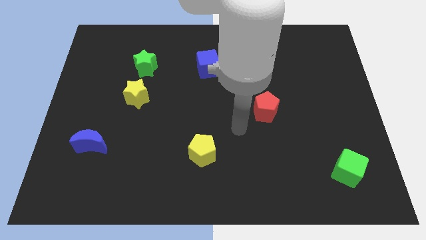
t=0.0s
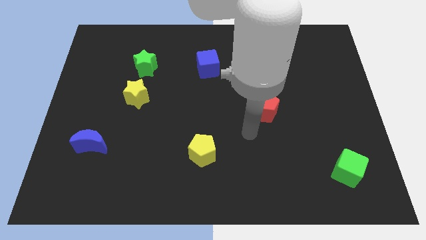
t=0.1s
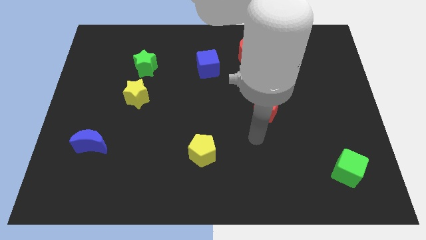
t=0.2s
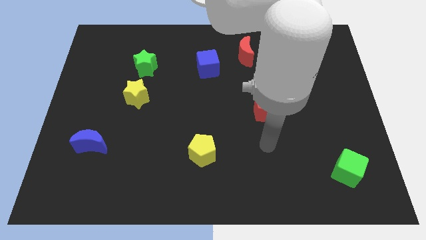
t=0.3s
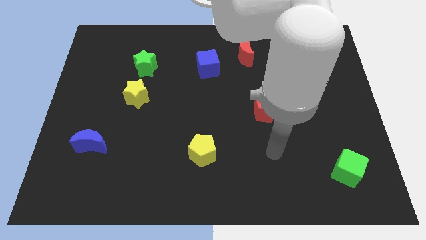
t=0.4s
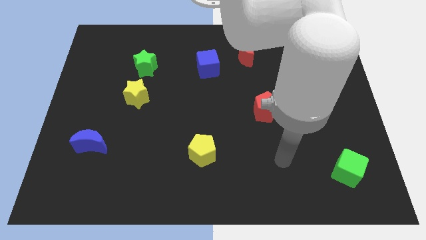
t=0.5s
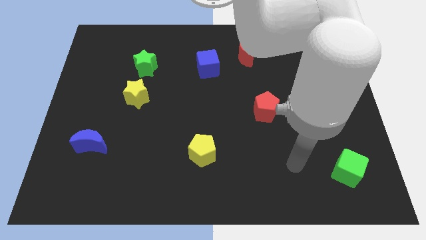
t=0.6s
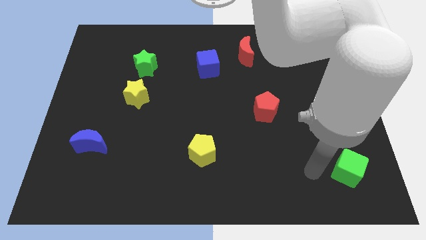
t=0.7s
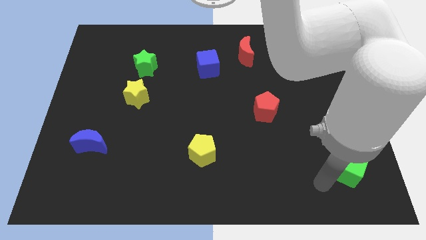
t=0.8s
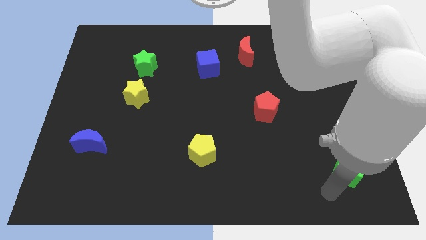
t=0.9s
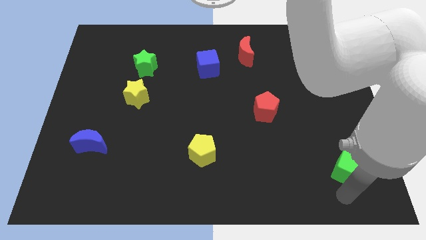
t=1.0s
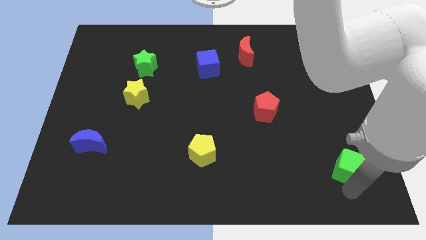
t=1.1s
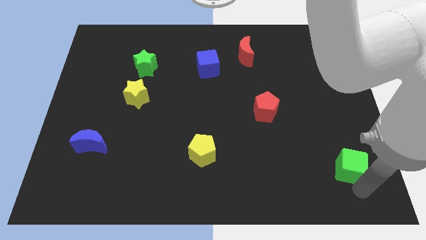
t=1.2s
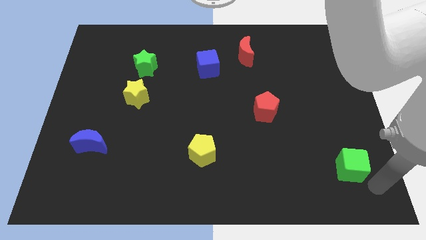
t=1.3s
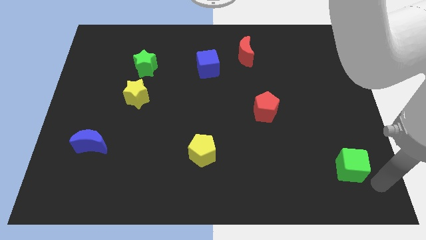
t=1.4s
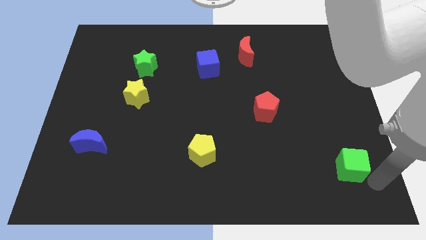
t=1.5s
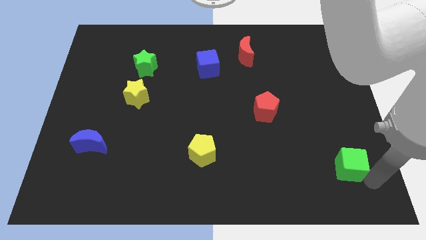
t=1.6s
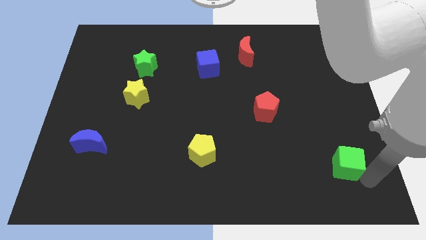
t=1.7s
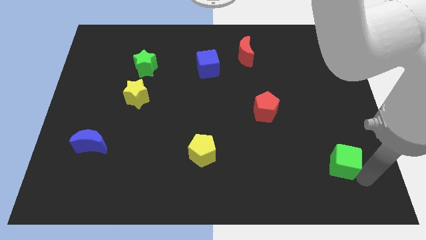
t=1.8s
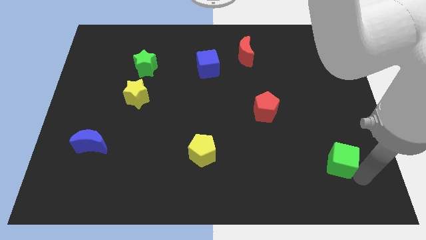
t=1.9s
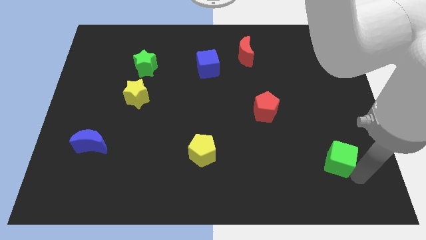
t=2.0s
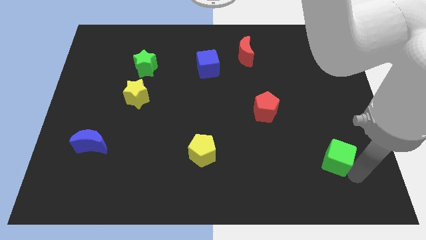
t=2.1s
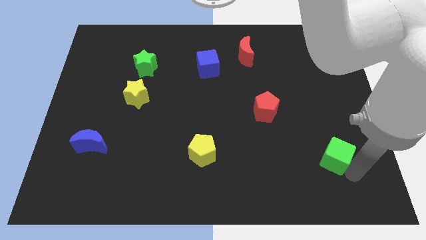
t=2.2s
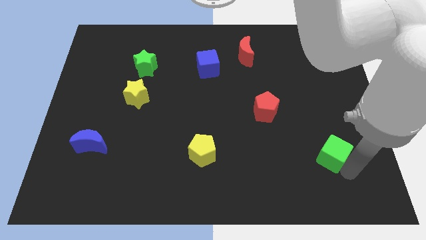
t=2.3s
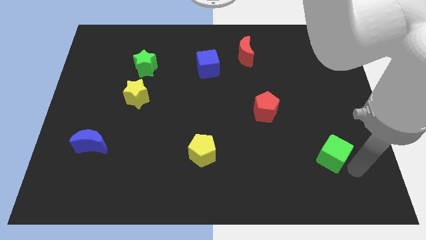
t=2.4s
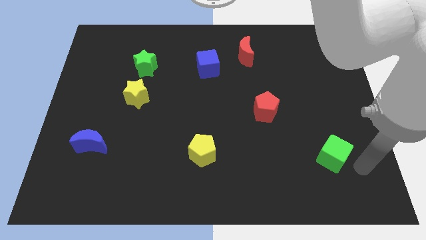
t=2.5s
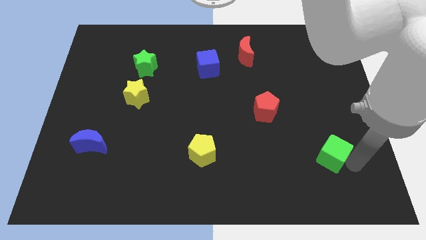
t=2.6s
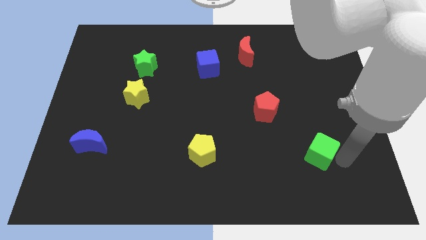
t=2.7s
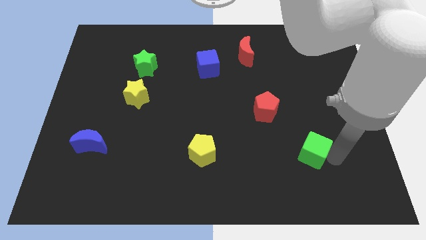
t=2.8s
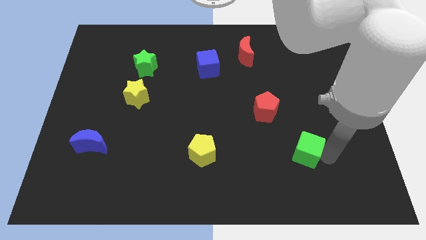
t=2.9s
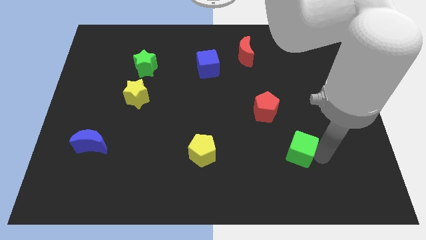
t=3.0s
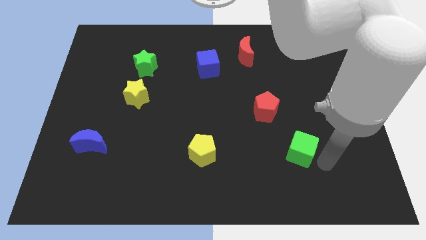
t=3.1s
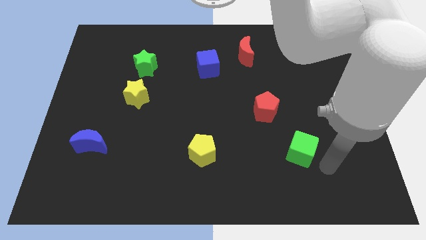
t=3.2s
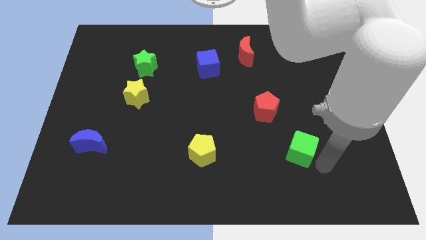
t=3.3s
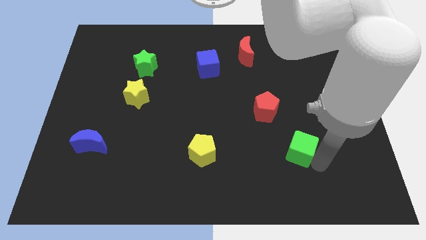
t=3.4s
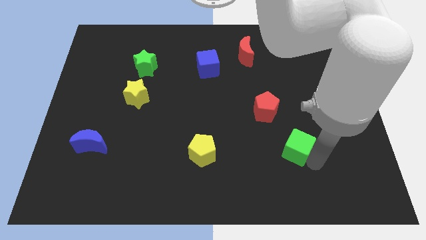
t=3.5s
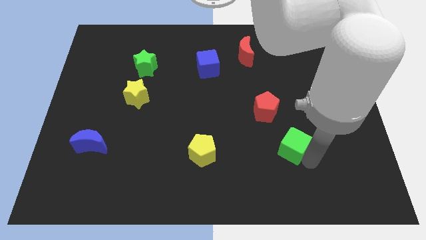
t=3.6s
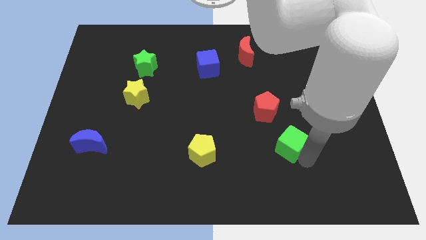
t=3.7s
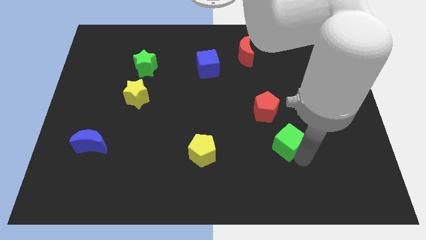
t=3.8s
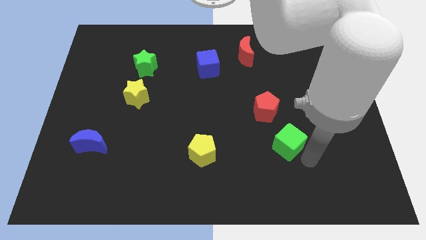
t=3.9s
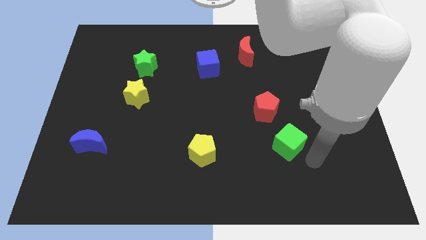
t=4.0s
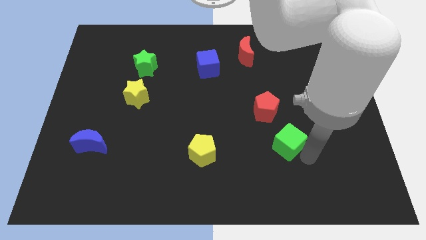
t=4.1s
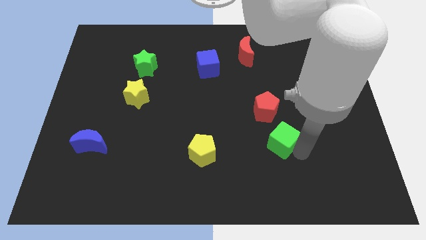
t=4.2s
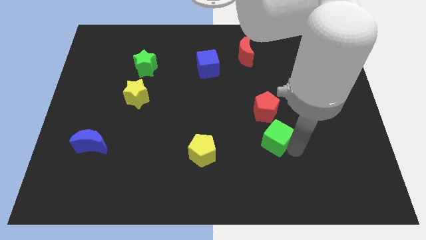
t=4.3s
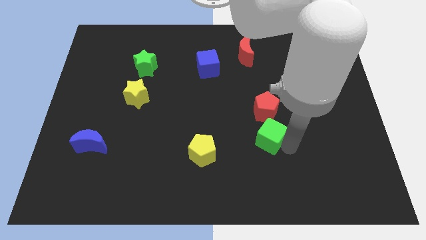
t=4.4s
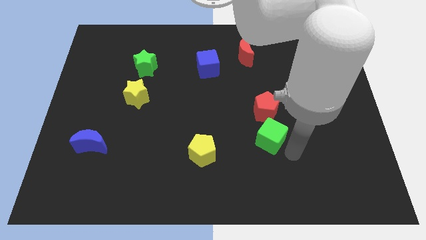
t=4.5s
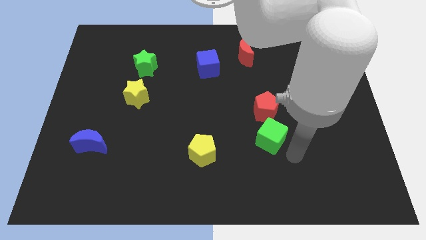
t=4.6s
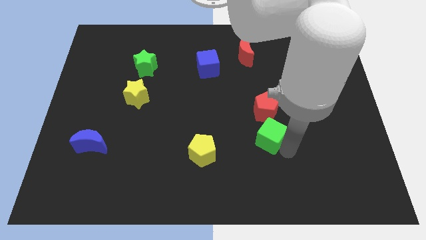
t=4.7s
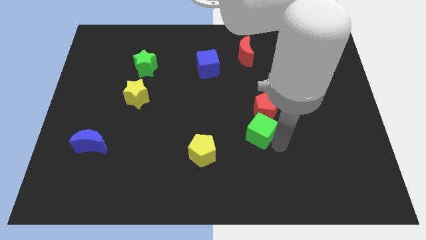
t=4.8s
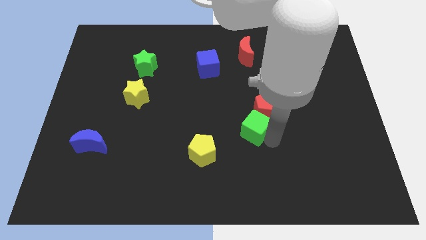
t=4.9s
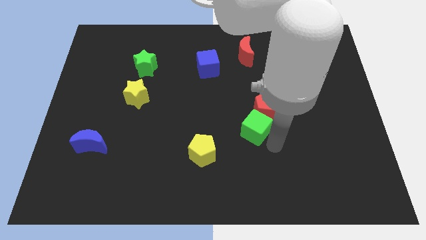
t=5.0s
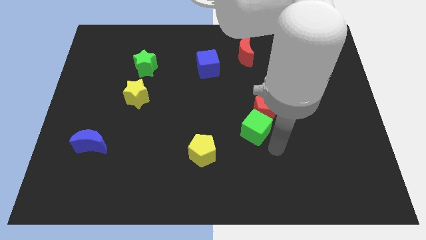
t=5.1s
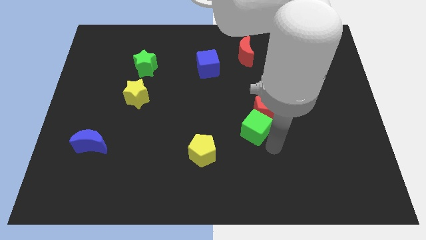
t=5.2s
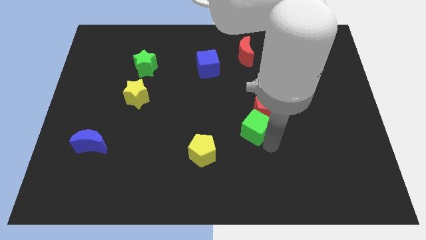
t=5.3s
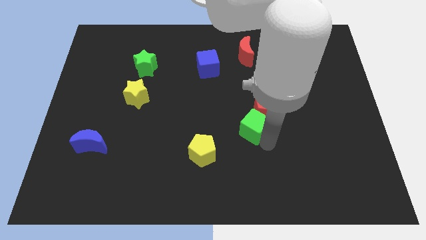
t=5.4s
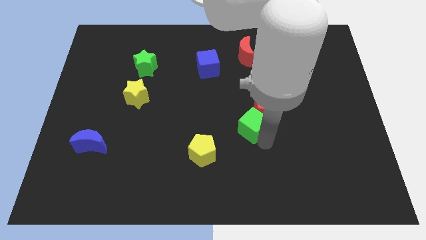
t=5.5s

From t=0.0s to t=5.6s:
slide the green cube upwards and left

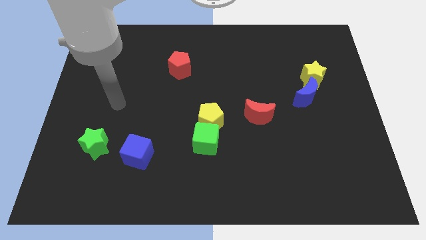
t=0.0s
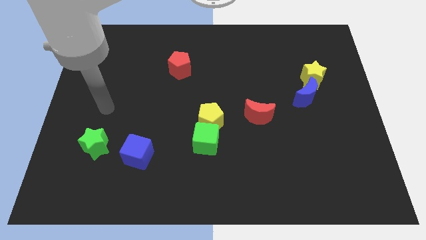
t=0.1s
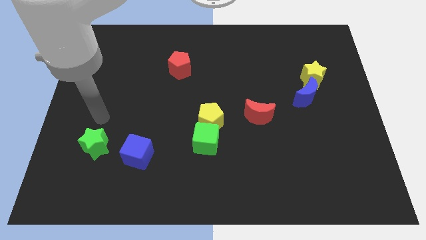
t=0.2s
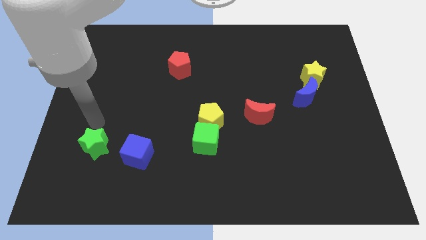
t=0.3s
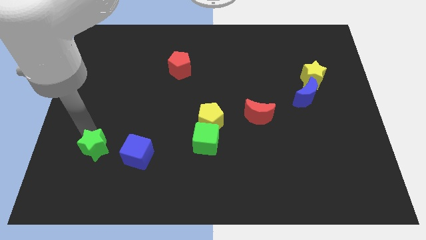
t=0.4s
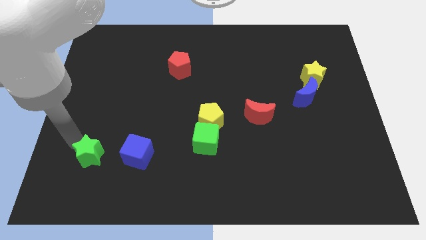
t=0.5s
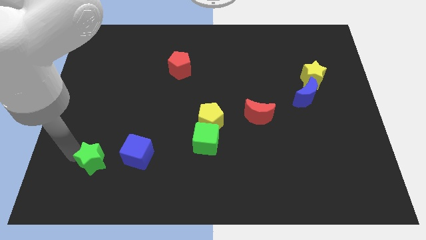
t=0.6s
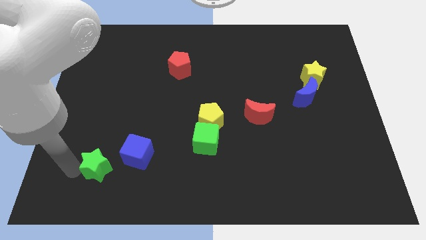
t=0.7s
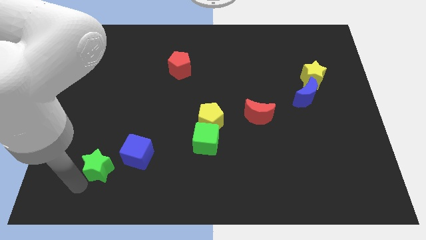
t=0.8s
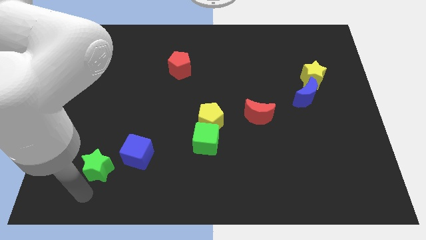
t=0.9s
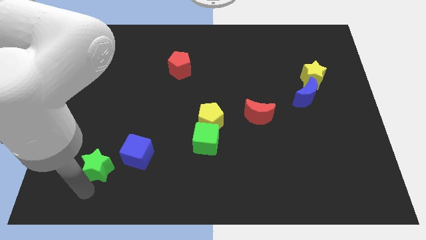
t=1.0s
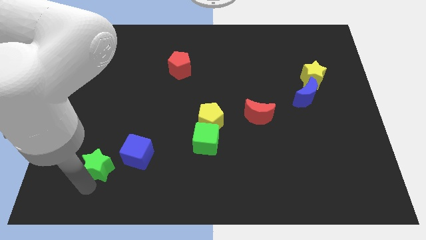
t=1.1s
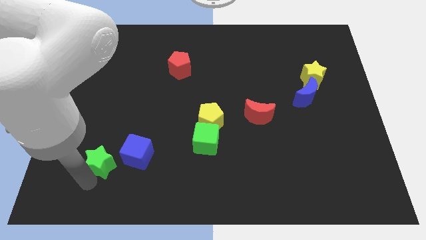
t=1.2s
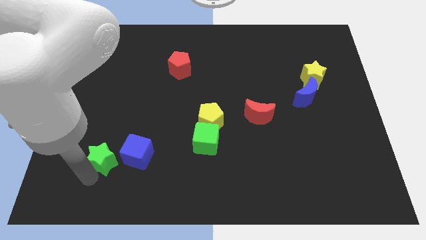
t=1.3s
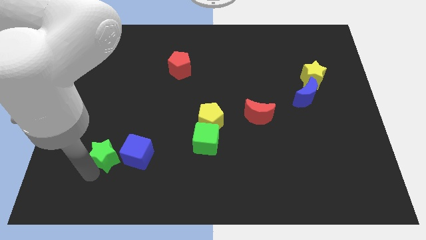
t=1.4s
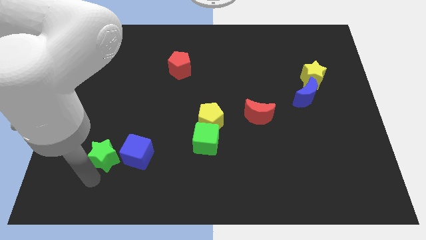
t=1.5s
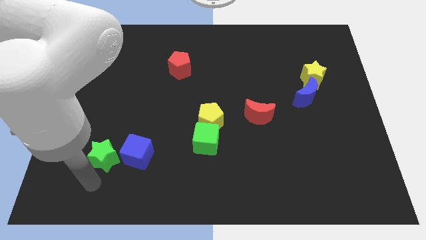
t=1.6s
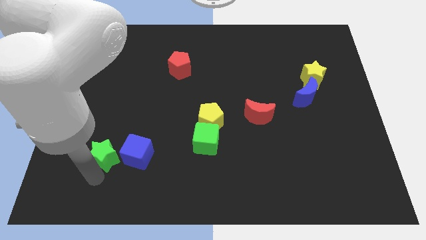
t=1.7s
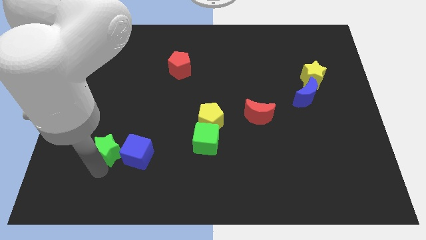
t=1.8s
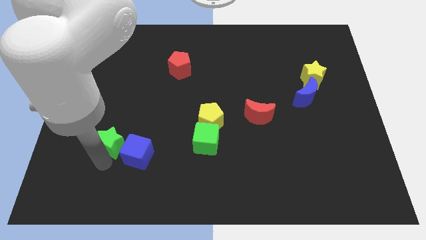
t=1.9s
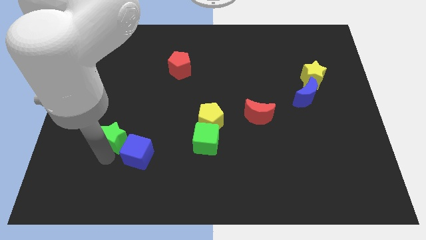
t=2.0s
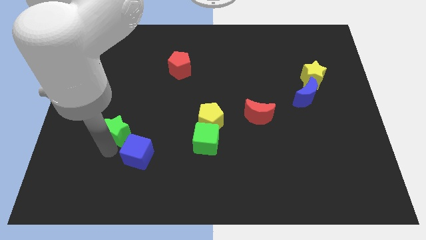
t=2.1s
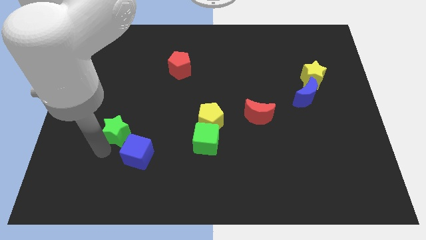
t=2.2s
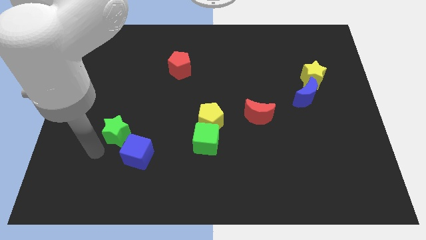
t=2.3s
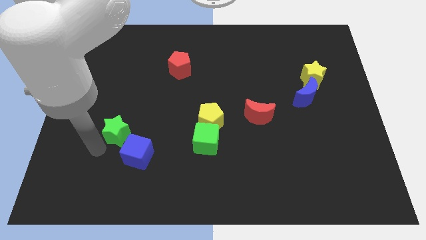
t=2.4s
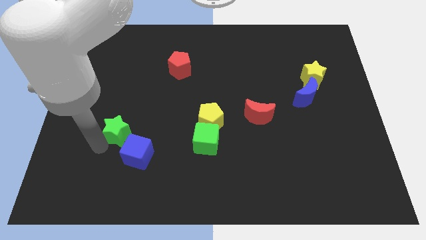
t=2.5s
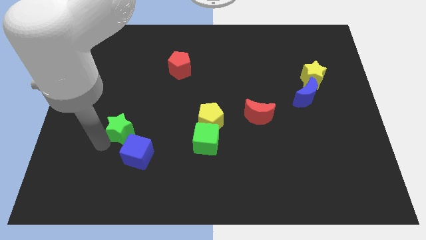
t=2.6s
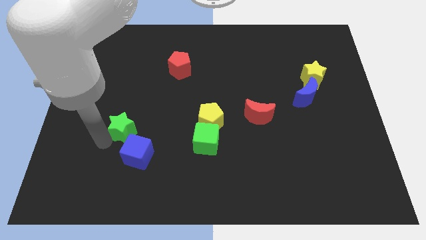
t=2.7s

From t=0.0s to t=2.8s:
slightly move the green star up and then to the right
